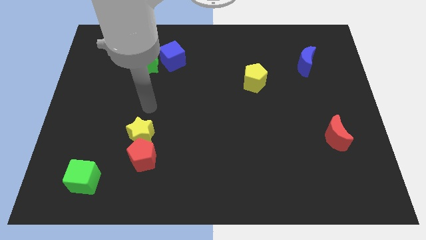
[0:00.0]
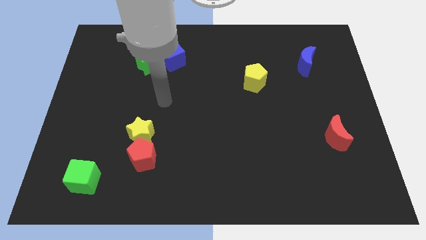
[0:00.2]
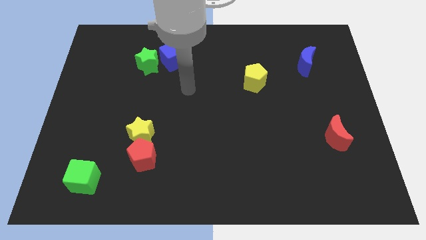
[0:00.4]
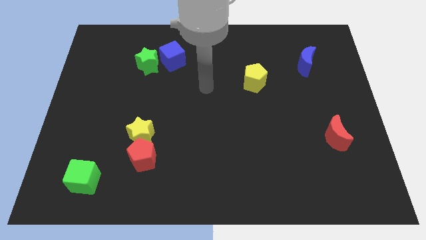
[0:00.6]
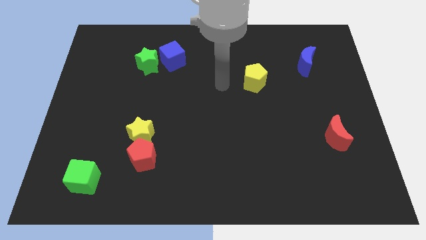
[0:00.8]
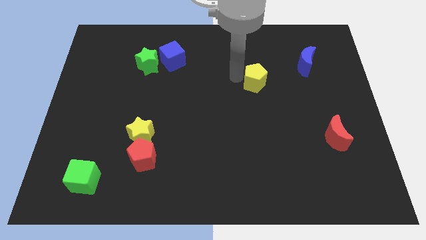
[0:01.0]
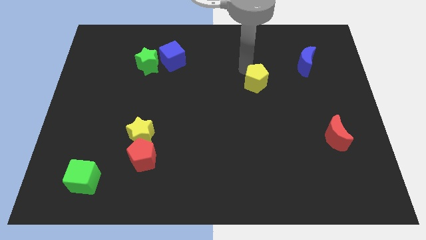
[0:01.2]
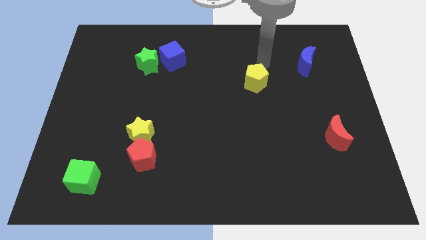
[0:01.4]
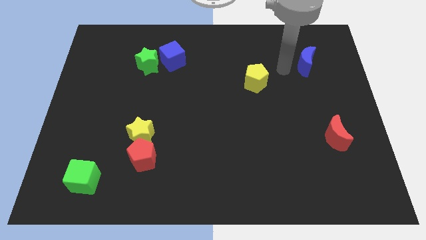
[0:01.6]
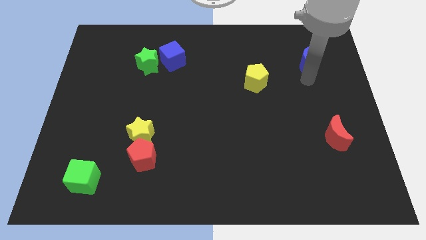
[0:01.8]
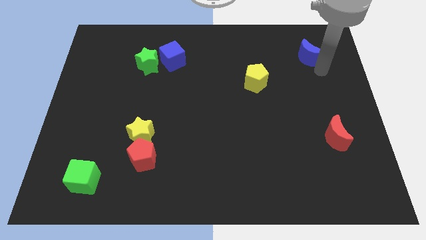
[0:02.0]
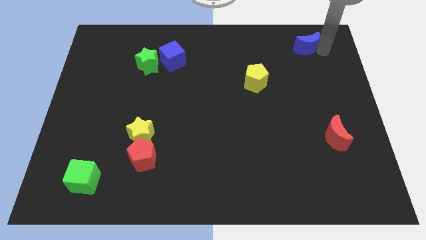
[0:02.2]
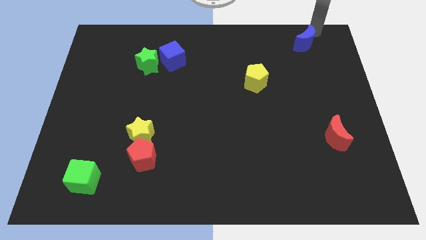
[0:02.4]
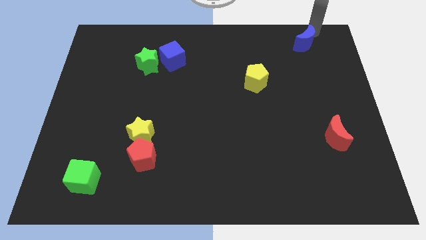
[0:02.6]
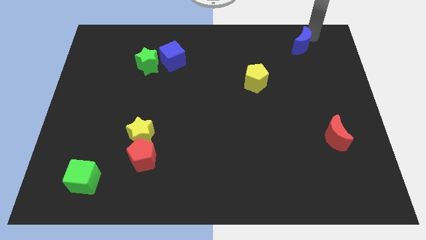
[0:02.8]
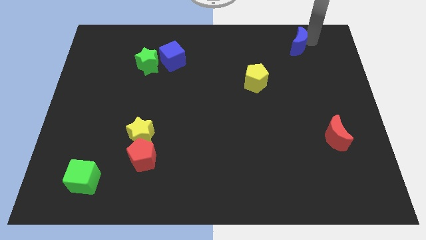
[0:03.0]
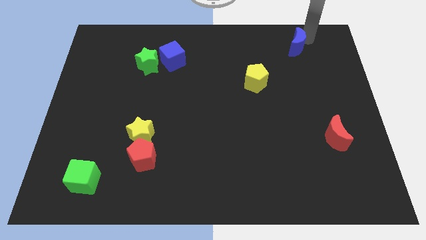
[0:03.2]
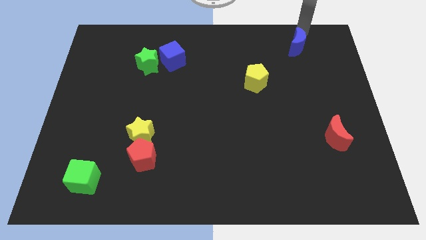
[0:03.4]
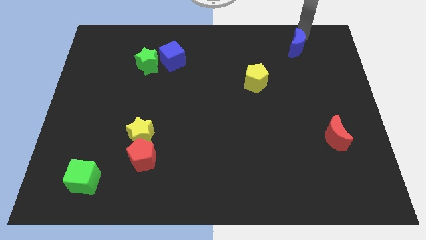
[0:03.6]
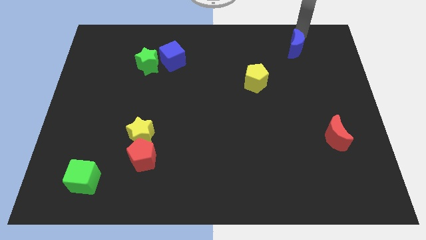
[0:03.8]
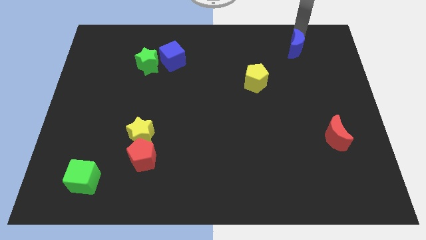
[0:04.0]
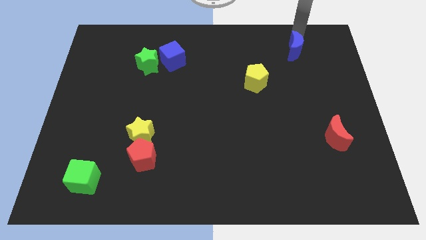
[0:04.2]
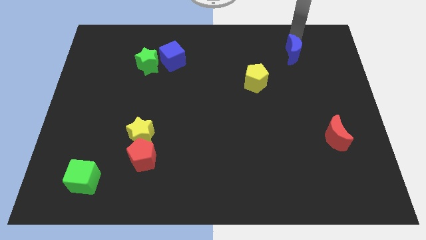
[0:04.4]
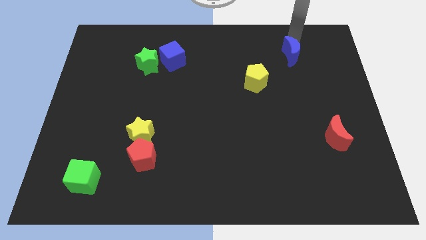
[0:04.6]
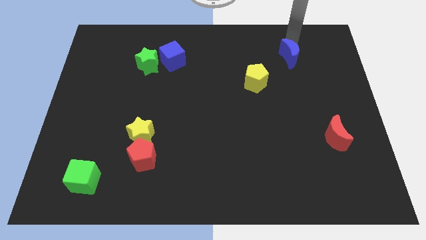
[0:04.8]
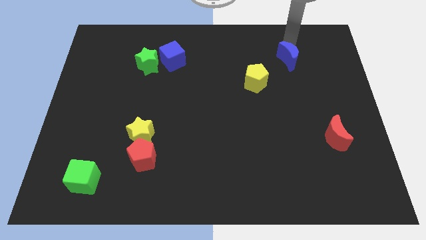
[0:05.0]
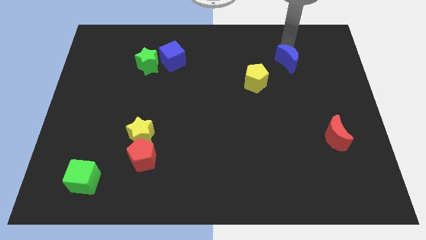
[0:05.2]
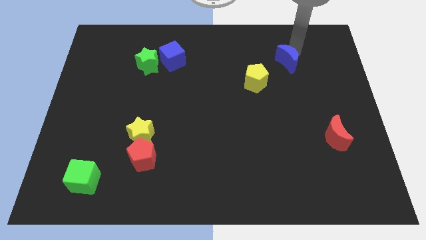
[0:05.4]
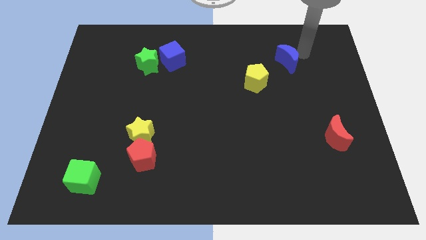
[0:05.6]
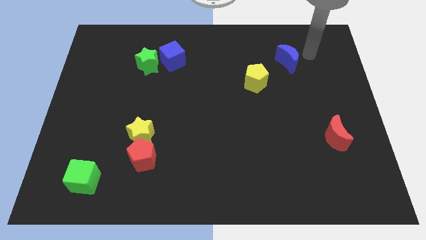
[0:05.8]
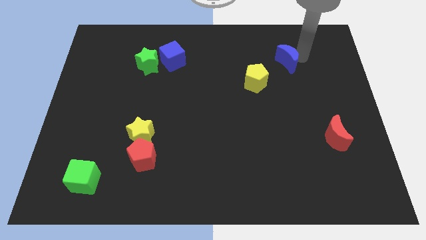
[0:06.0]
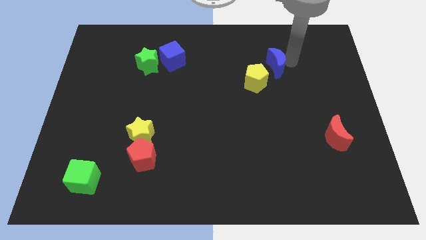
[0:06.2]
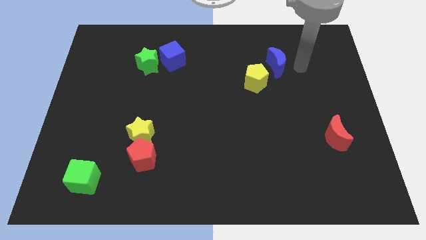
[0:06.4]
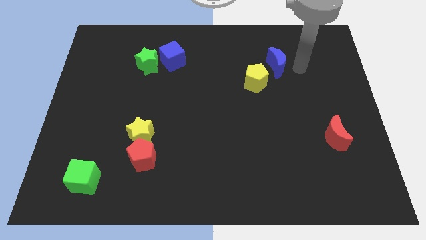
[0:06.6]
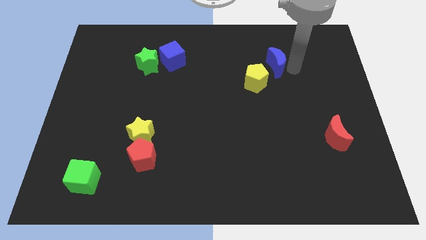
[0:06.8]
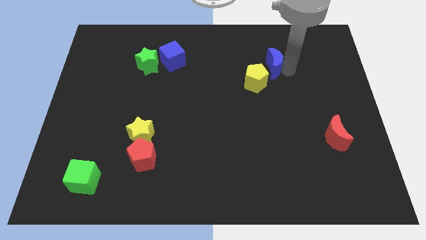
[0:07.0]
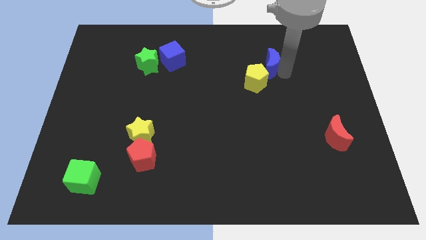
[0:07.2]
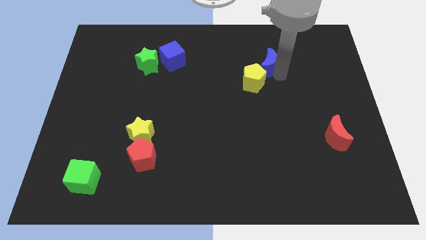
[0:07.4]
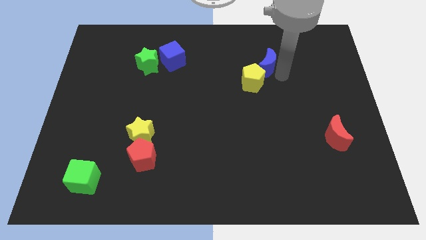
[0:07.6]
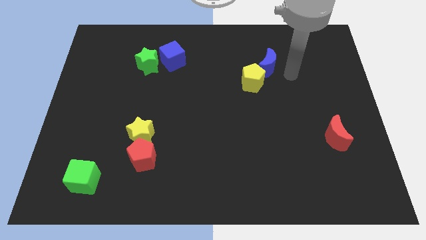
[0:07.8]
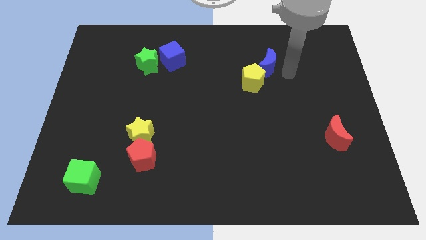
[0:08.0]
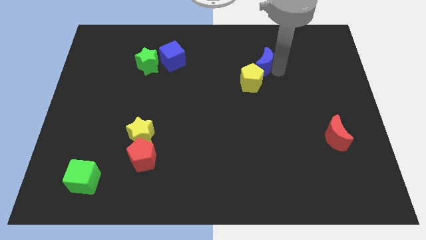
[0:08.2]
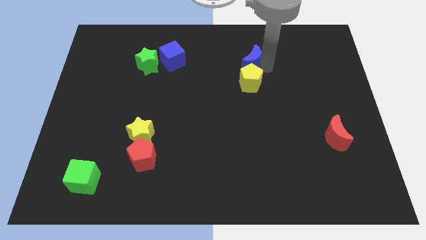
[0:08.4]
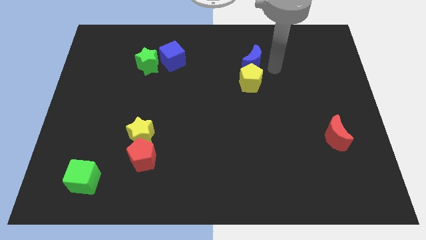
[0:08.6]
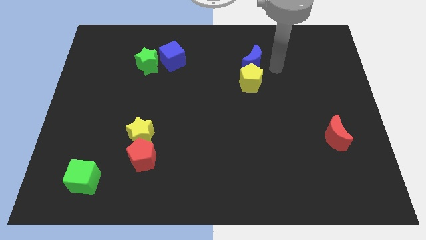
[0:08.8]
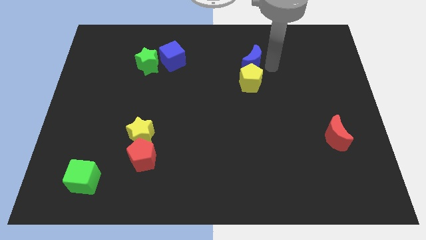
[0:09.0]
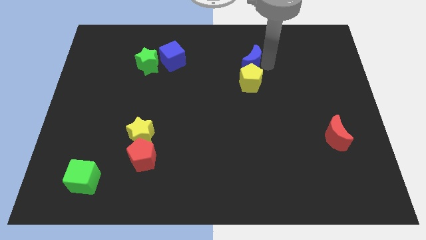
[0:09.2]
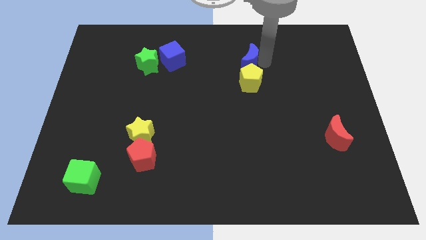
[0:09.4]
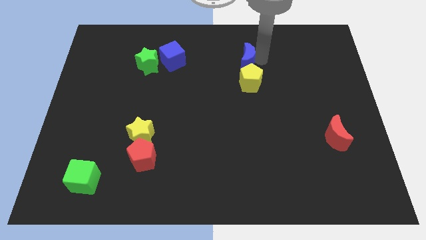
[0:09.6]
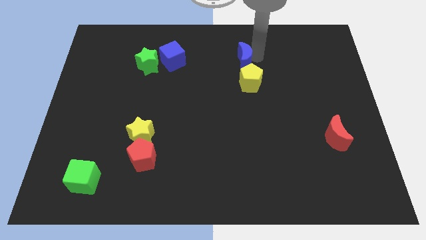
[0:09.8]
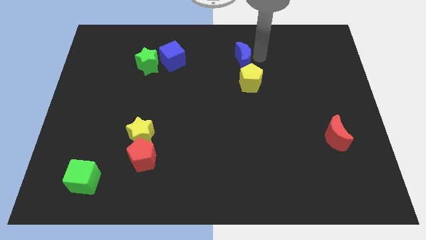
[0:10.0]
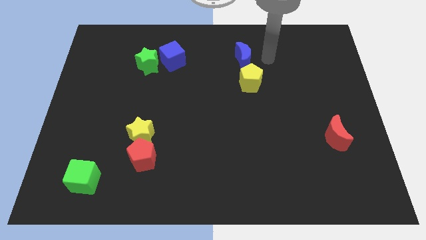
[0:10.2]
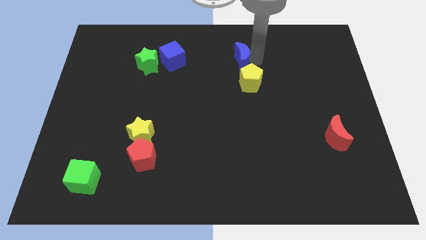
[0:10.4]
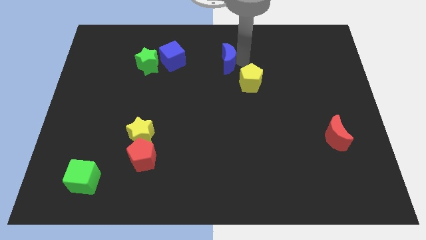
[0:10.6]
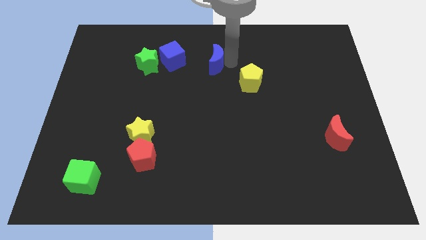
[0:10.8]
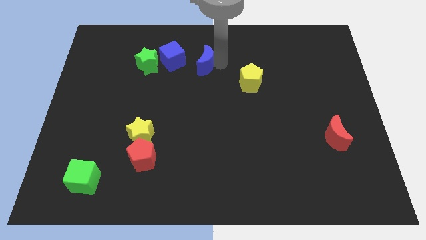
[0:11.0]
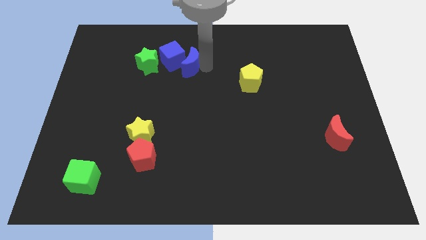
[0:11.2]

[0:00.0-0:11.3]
push the blue moon close to the blue cube

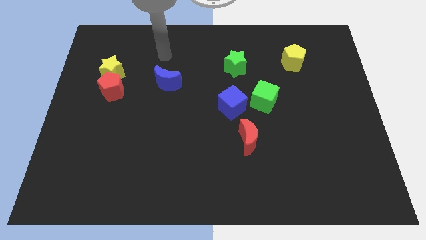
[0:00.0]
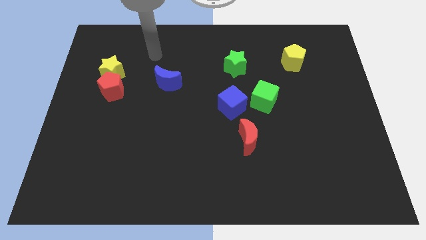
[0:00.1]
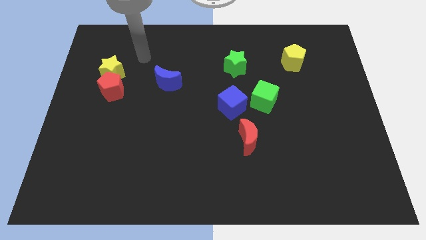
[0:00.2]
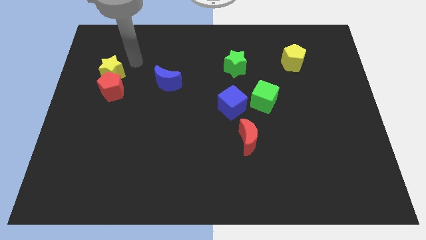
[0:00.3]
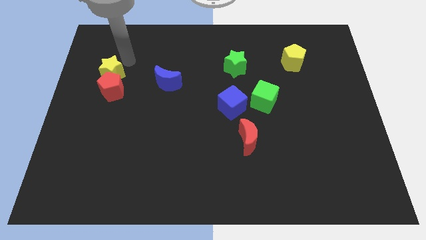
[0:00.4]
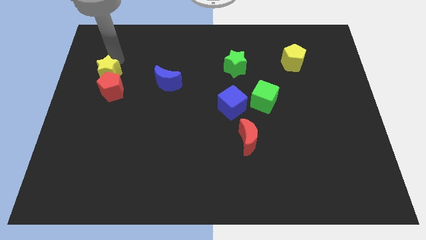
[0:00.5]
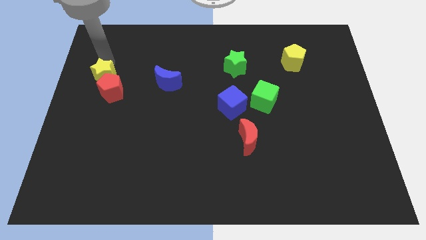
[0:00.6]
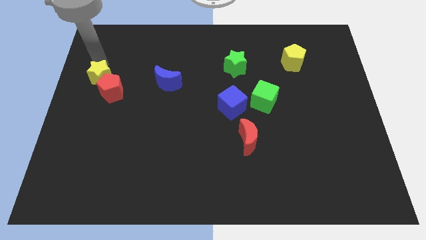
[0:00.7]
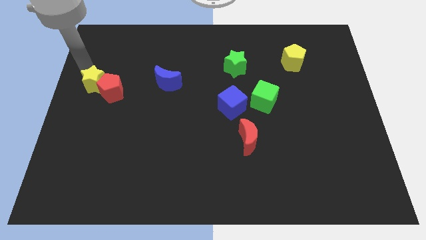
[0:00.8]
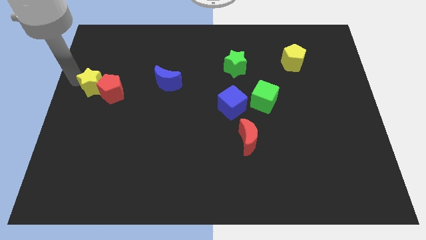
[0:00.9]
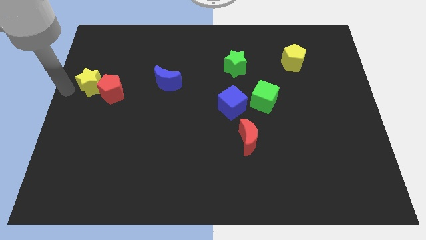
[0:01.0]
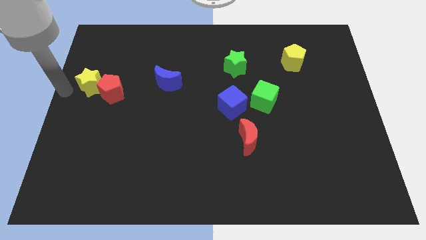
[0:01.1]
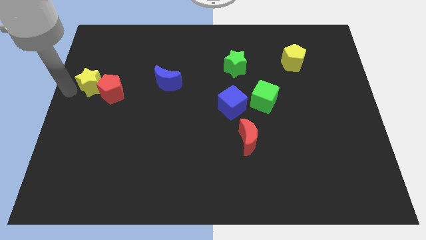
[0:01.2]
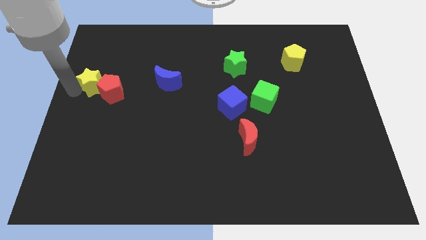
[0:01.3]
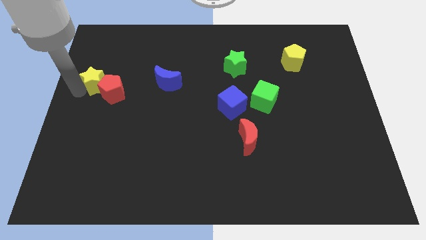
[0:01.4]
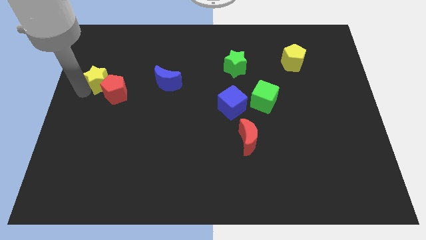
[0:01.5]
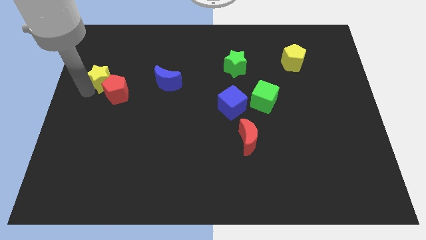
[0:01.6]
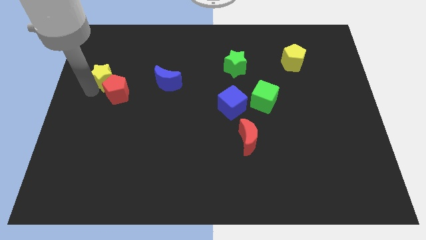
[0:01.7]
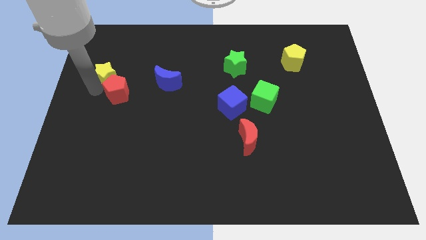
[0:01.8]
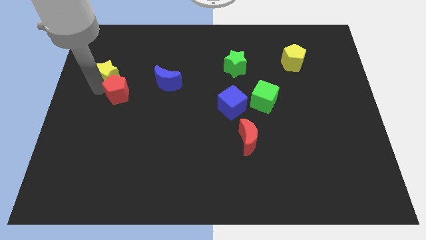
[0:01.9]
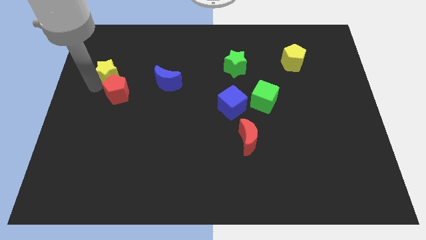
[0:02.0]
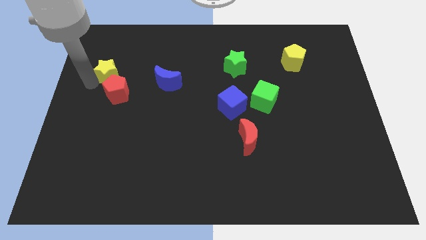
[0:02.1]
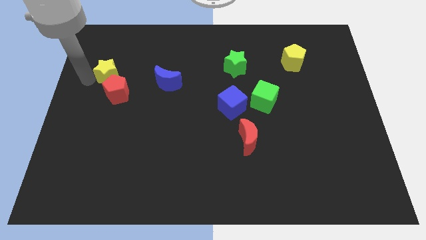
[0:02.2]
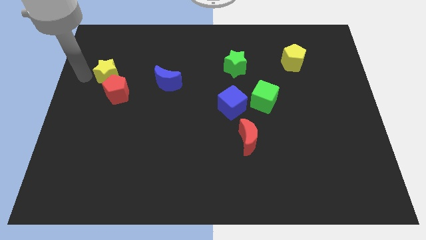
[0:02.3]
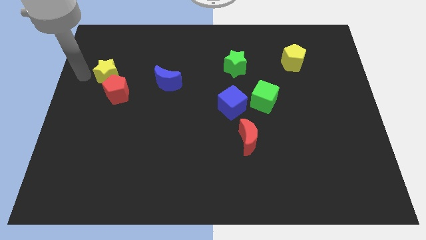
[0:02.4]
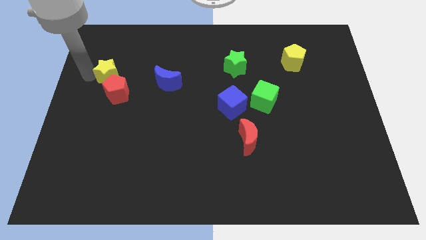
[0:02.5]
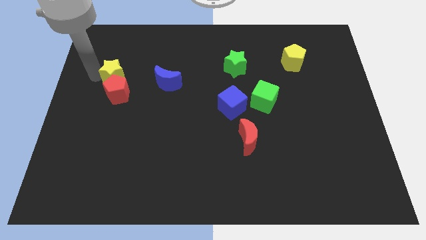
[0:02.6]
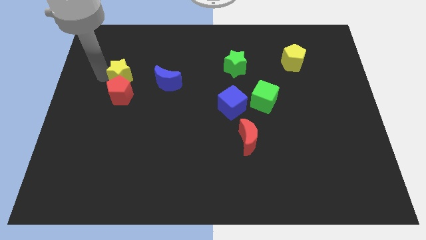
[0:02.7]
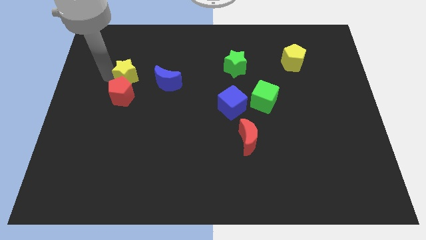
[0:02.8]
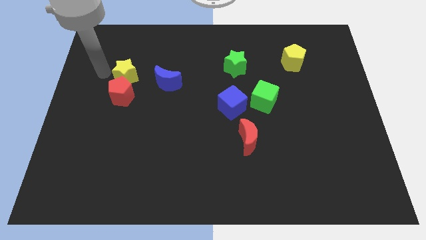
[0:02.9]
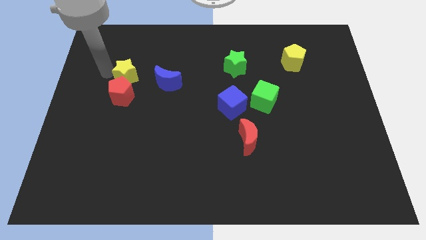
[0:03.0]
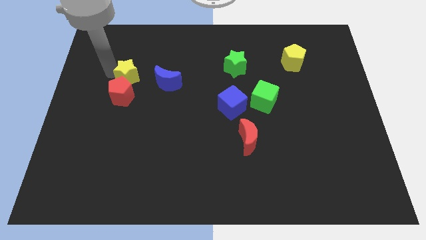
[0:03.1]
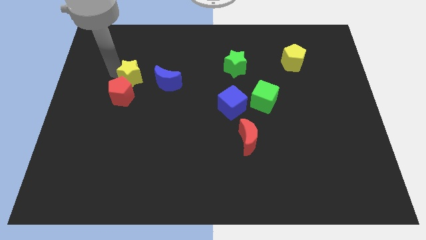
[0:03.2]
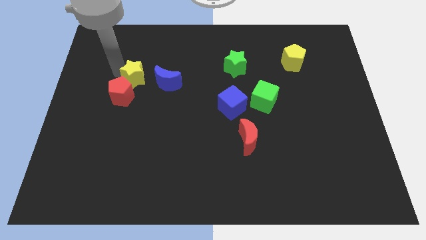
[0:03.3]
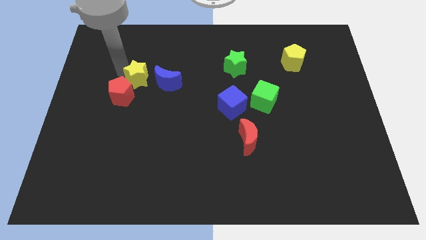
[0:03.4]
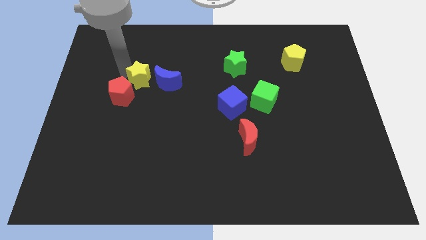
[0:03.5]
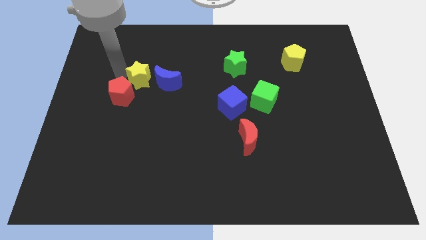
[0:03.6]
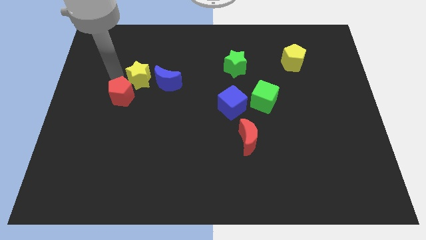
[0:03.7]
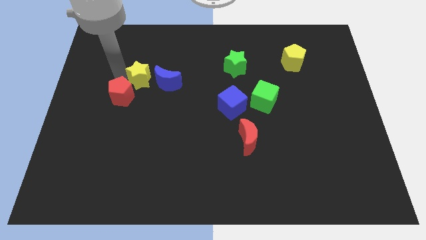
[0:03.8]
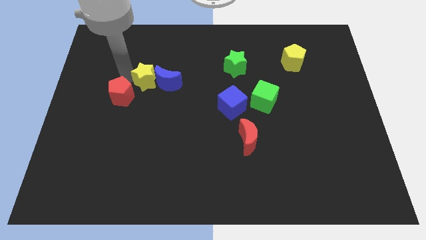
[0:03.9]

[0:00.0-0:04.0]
move the yellow star to the blue moon
